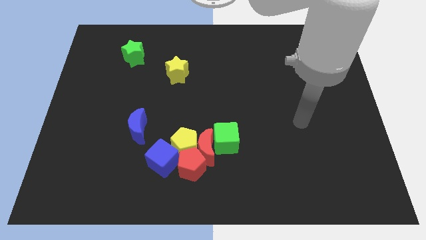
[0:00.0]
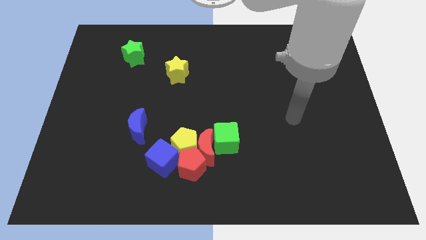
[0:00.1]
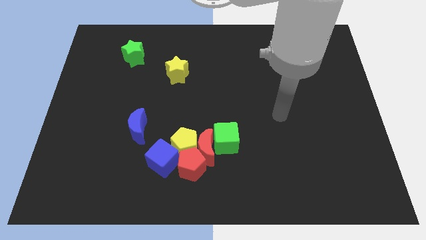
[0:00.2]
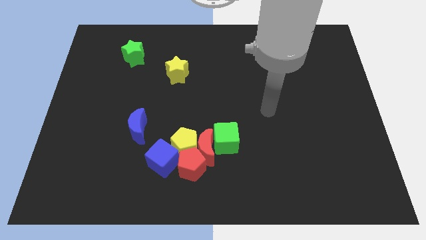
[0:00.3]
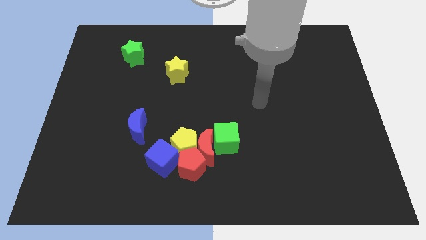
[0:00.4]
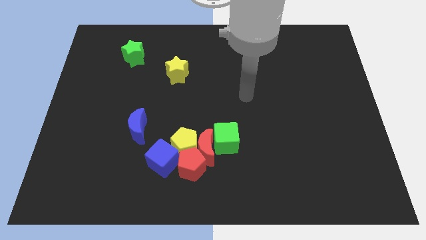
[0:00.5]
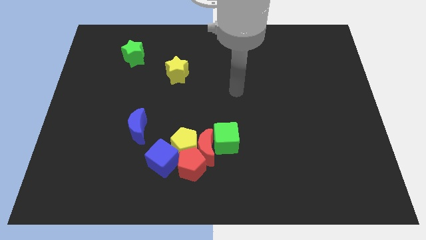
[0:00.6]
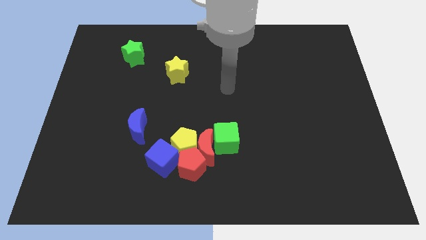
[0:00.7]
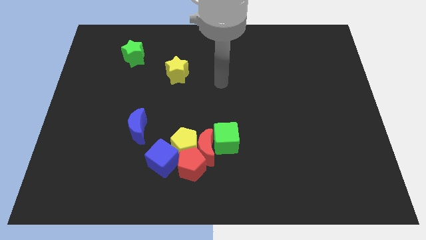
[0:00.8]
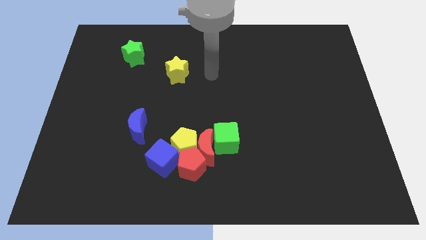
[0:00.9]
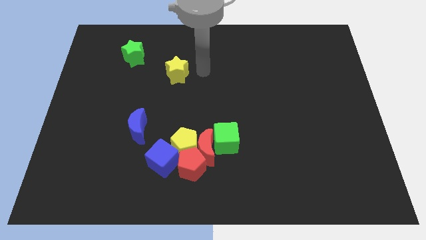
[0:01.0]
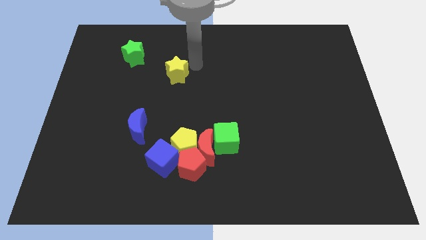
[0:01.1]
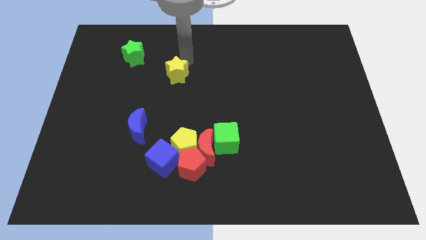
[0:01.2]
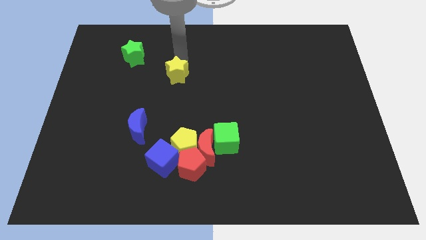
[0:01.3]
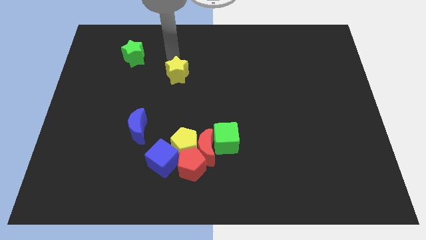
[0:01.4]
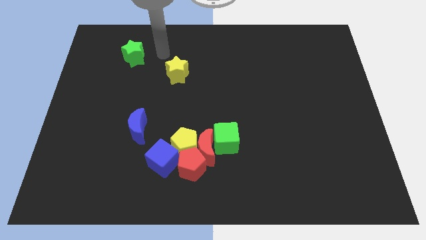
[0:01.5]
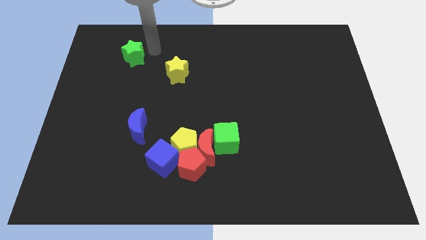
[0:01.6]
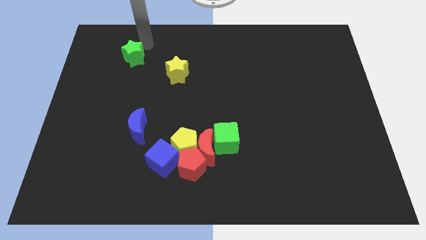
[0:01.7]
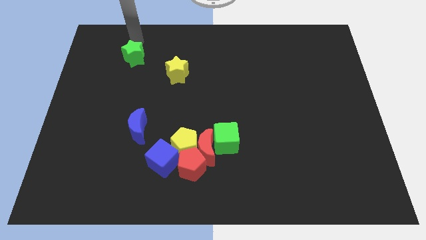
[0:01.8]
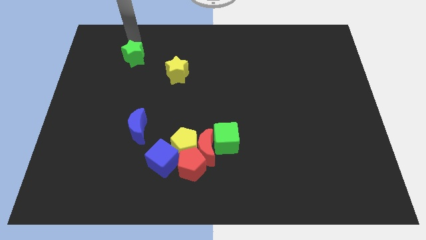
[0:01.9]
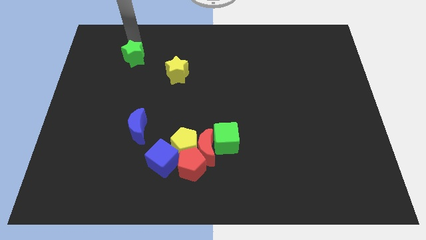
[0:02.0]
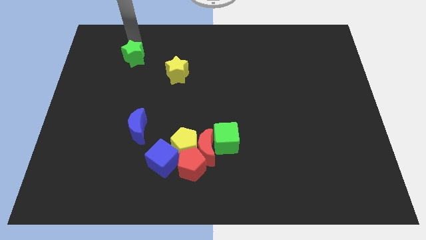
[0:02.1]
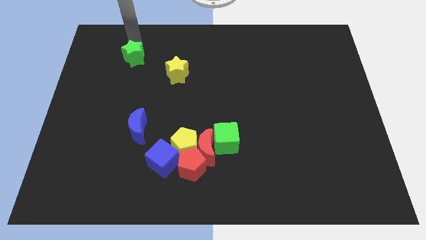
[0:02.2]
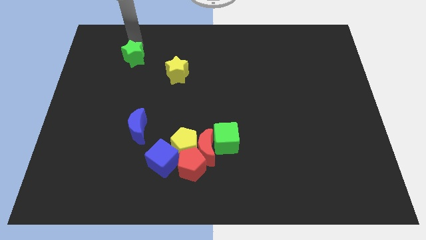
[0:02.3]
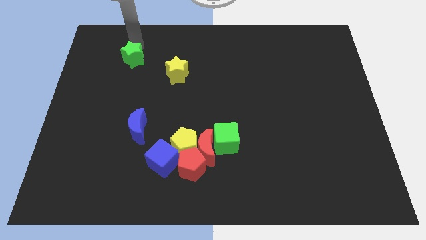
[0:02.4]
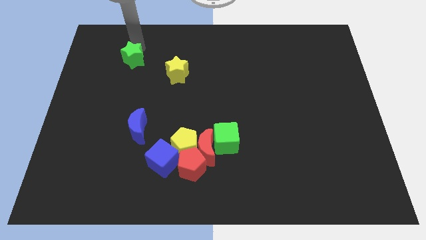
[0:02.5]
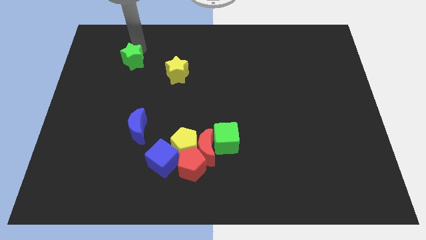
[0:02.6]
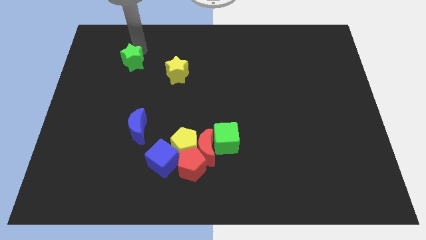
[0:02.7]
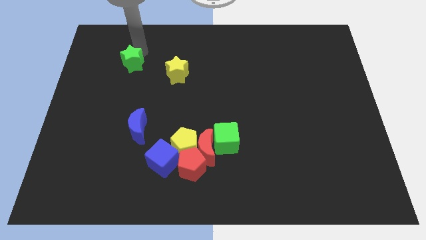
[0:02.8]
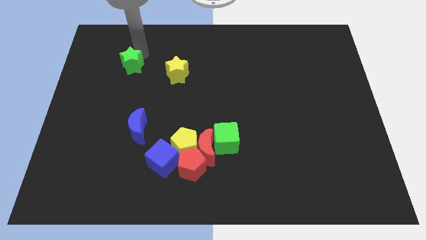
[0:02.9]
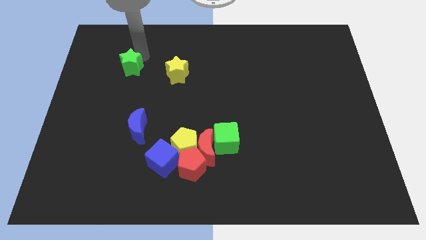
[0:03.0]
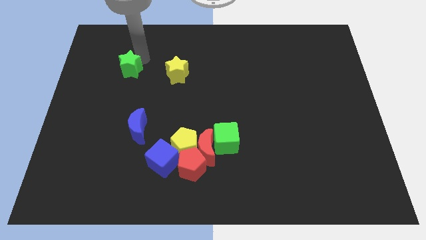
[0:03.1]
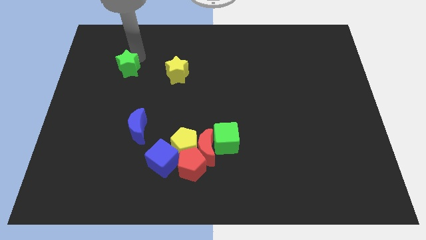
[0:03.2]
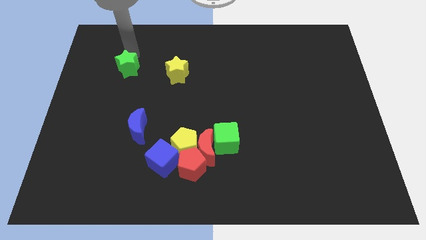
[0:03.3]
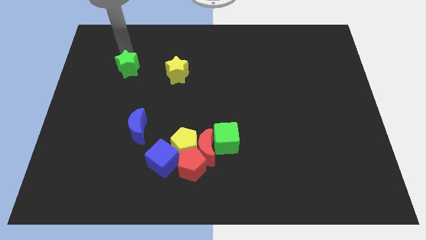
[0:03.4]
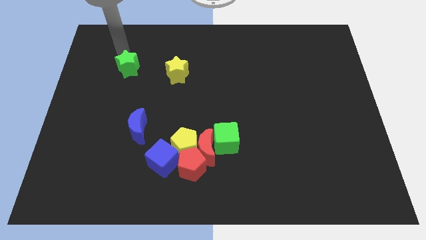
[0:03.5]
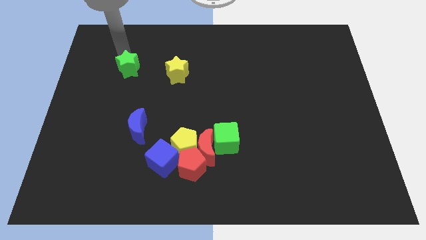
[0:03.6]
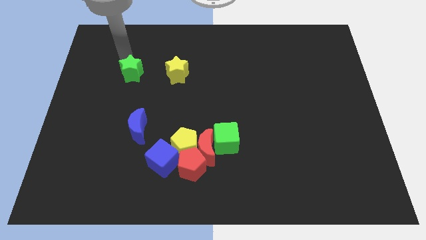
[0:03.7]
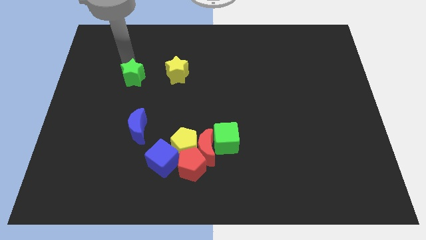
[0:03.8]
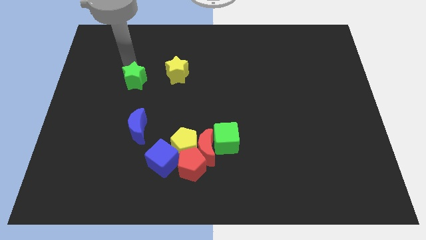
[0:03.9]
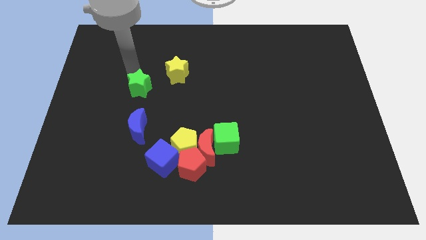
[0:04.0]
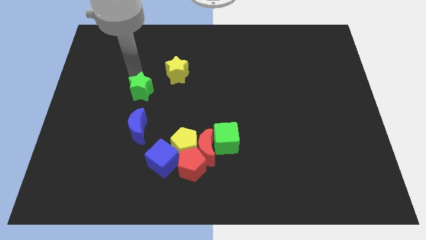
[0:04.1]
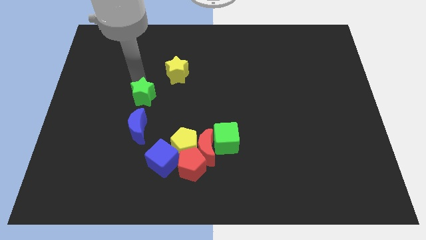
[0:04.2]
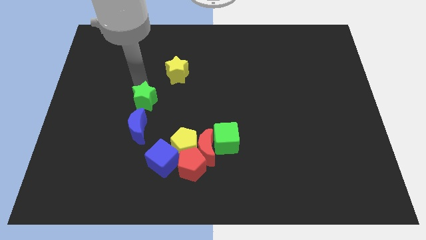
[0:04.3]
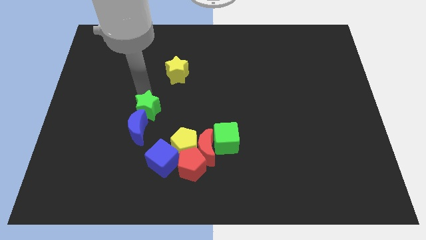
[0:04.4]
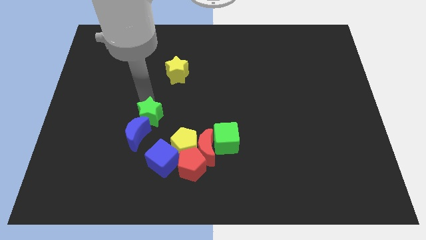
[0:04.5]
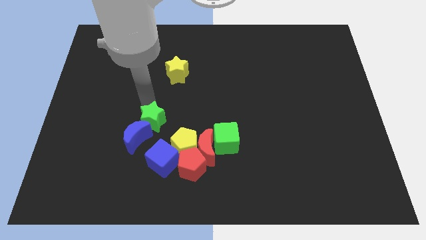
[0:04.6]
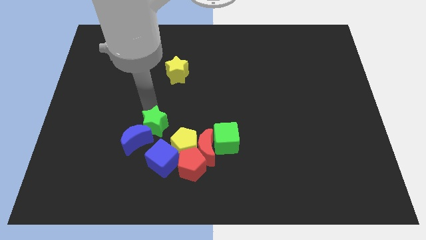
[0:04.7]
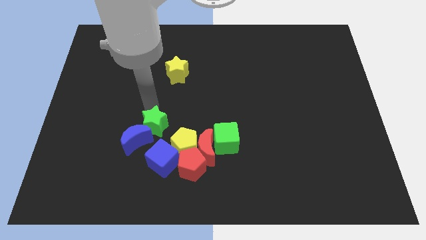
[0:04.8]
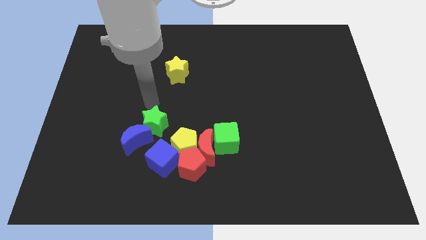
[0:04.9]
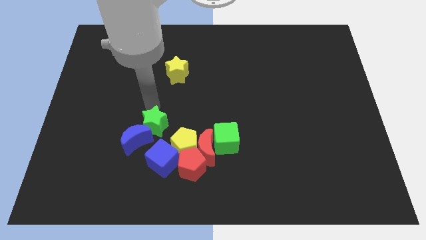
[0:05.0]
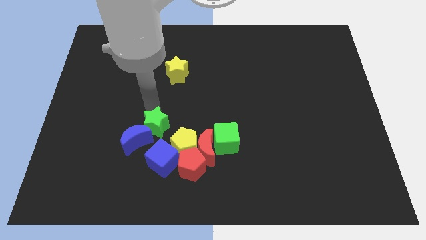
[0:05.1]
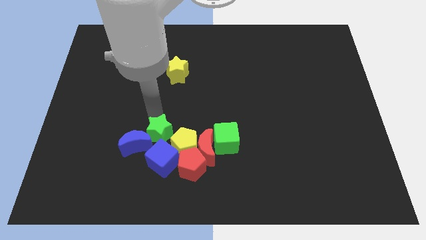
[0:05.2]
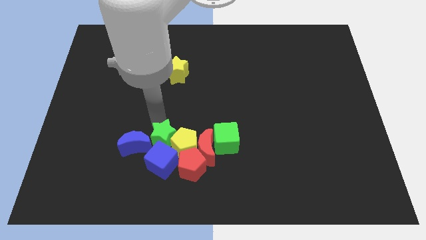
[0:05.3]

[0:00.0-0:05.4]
push the green star towards the blue cube

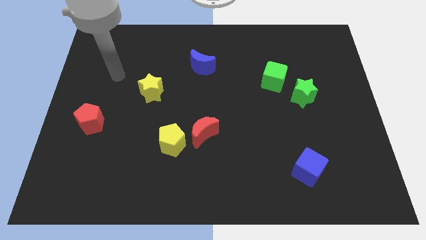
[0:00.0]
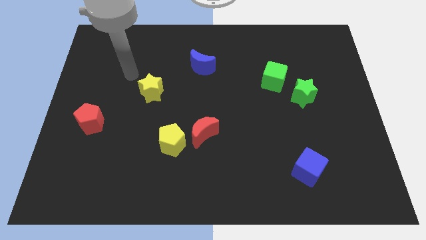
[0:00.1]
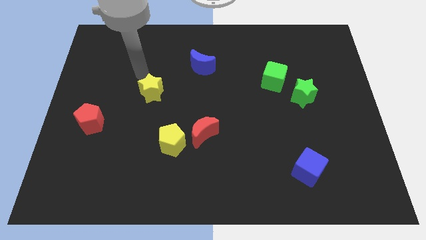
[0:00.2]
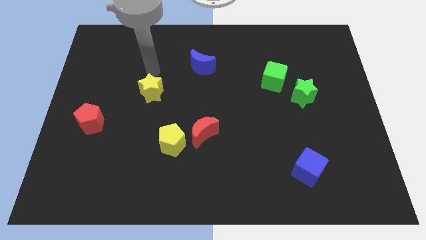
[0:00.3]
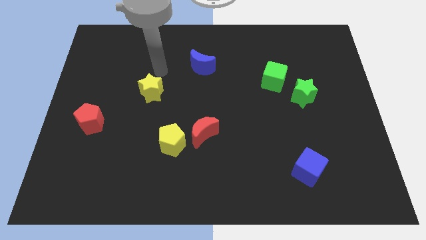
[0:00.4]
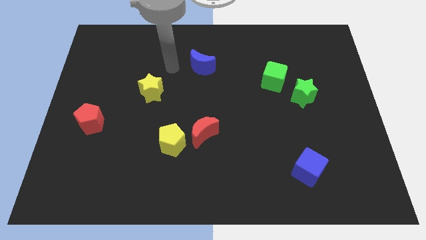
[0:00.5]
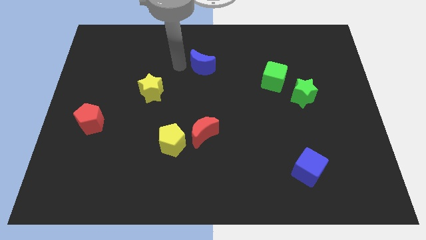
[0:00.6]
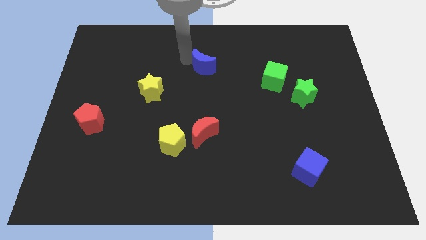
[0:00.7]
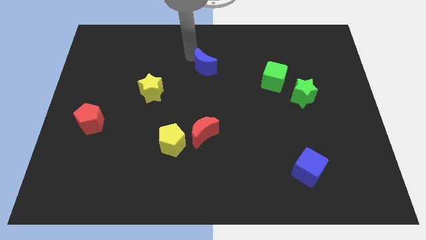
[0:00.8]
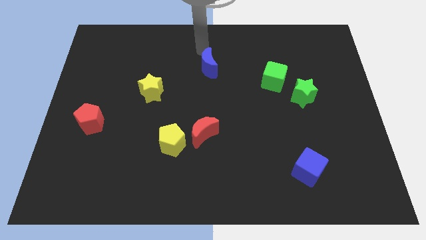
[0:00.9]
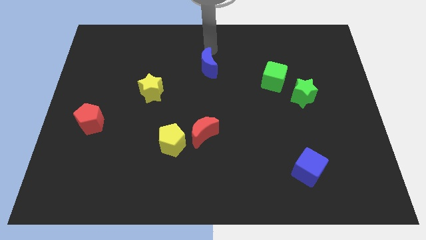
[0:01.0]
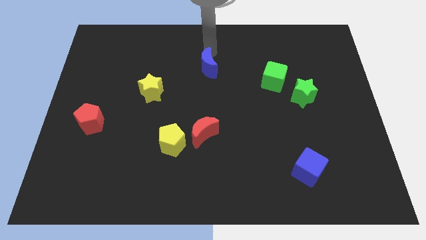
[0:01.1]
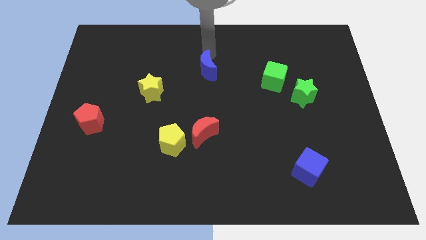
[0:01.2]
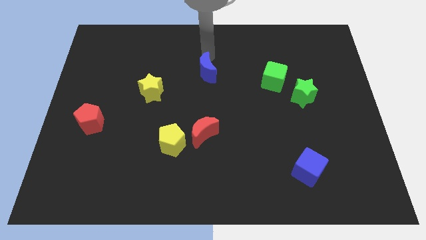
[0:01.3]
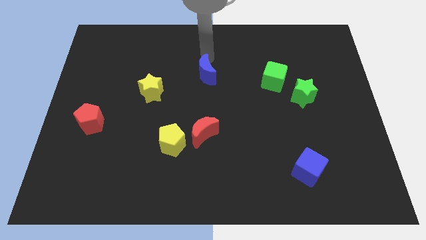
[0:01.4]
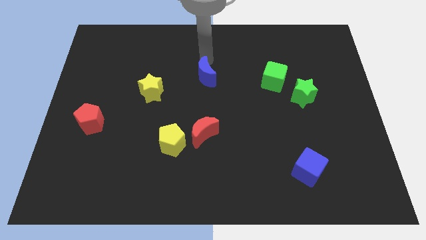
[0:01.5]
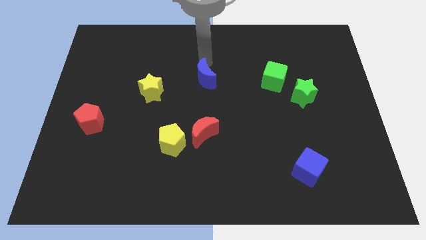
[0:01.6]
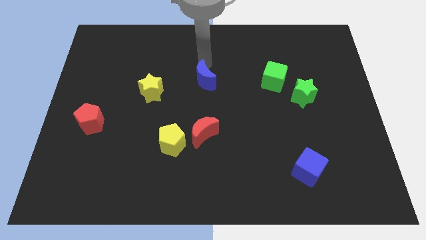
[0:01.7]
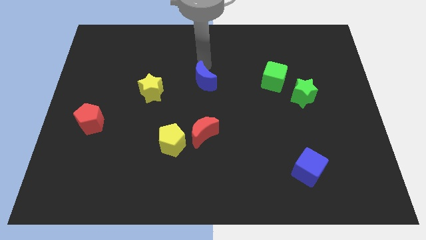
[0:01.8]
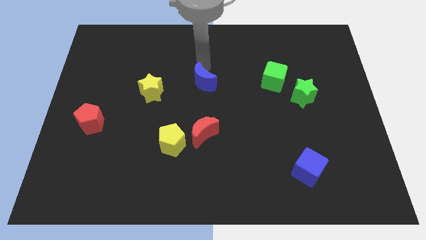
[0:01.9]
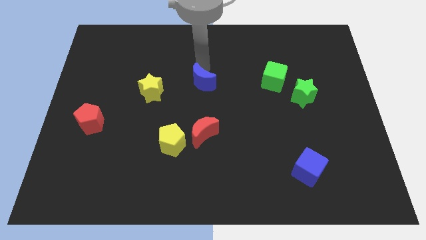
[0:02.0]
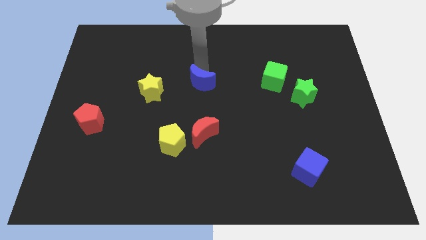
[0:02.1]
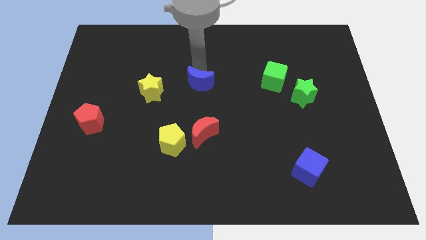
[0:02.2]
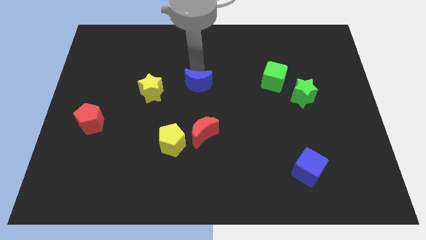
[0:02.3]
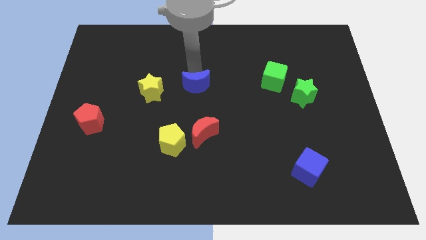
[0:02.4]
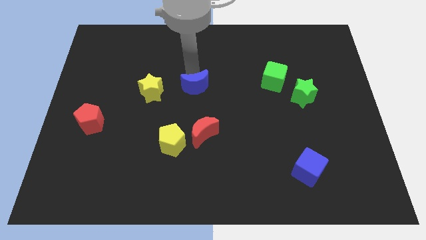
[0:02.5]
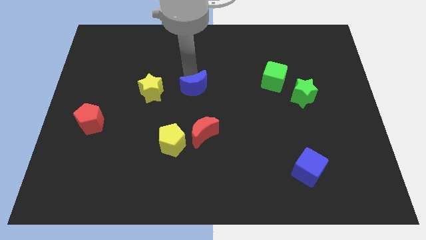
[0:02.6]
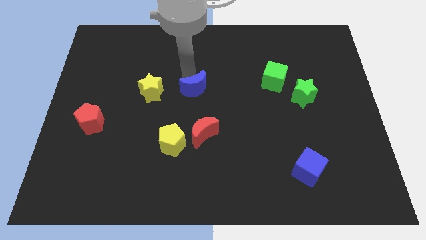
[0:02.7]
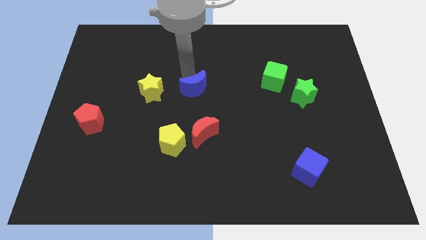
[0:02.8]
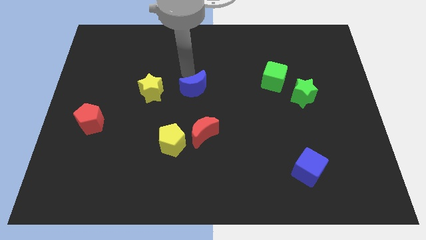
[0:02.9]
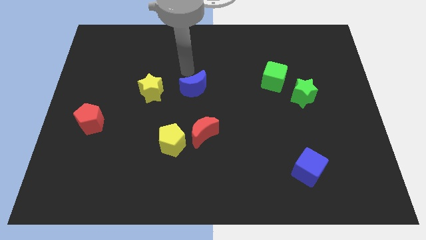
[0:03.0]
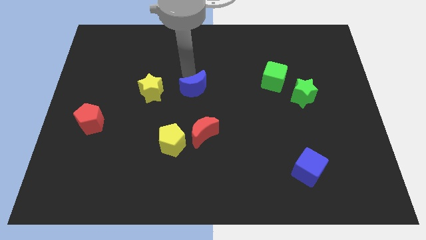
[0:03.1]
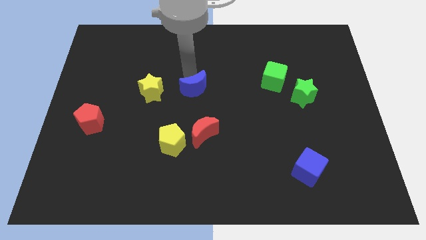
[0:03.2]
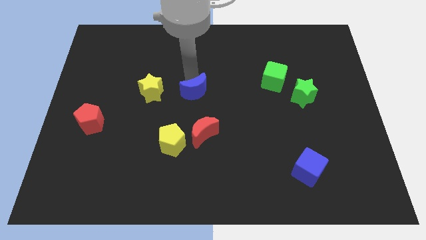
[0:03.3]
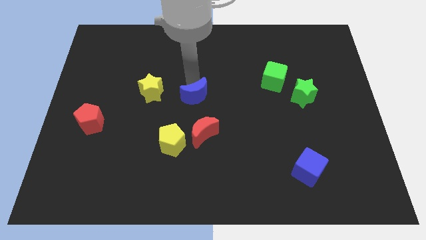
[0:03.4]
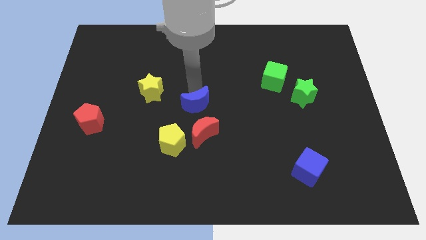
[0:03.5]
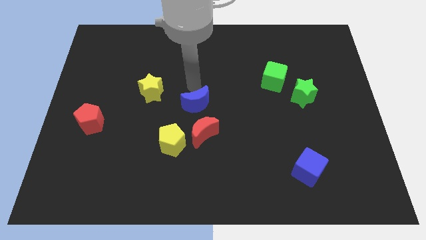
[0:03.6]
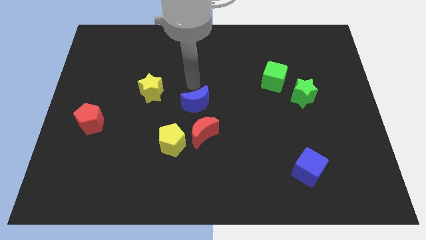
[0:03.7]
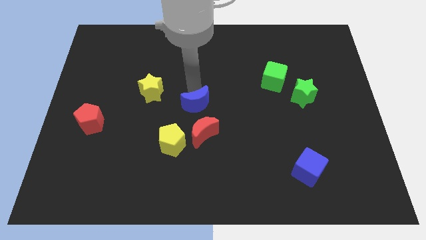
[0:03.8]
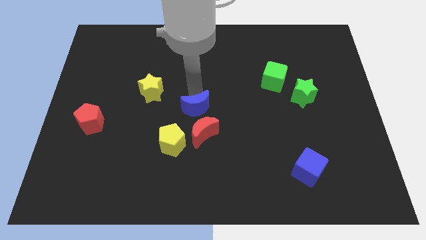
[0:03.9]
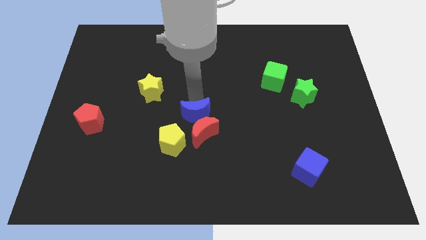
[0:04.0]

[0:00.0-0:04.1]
slide the blue moon close to the red moon
